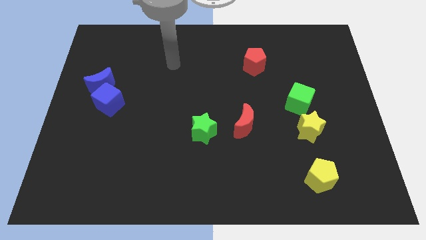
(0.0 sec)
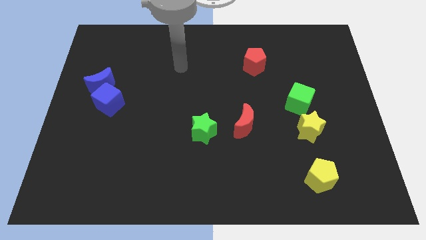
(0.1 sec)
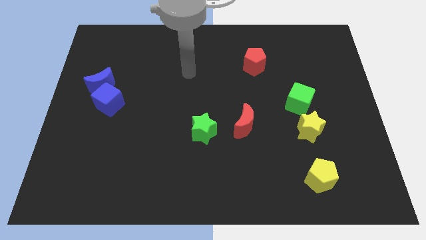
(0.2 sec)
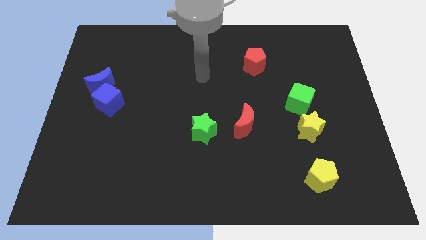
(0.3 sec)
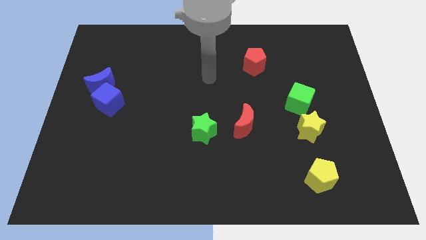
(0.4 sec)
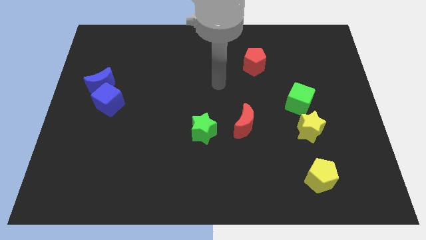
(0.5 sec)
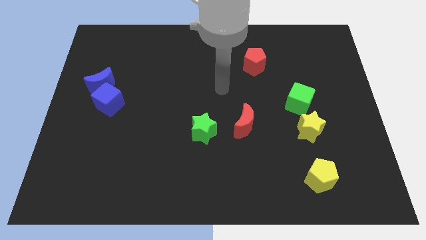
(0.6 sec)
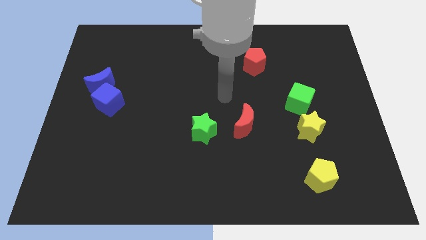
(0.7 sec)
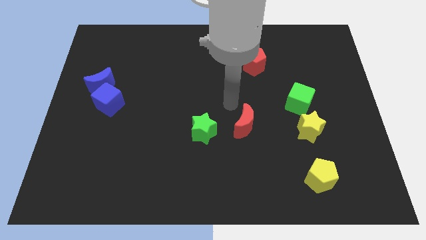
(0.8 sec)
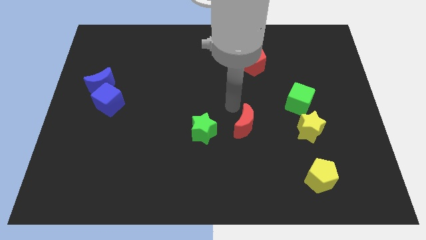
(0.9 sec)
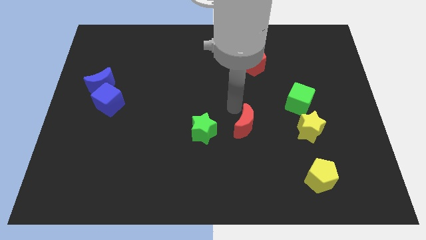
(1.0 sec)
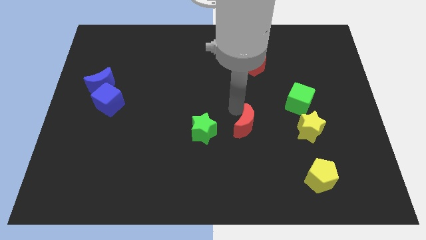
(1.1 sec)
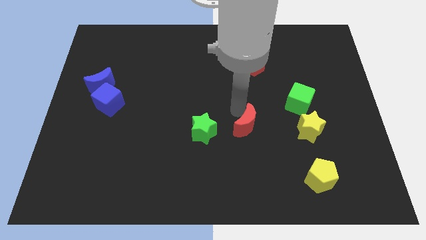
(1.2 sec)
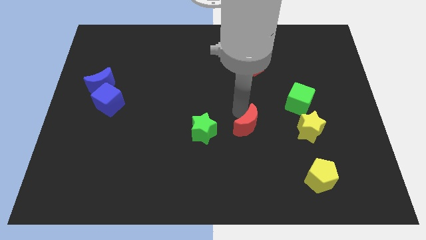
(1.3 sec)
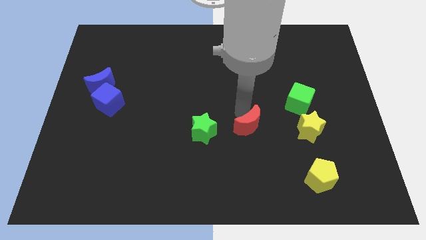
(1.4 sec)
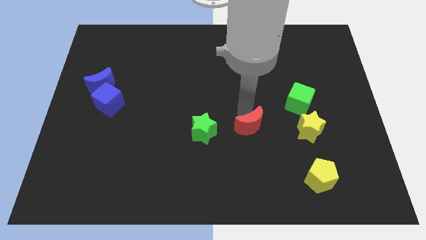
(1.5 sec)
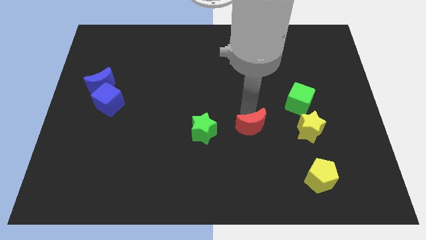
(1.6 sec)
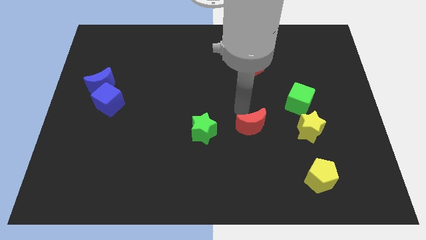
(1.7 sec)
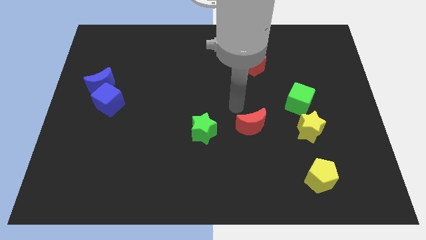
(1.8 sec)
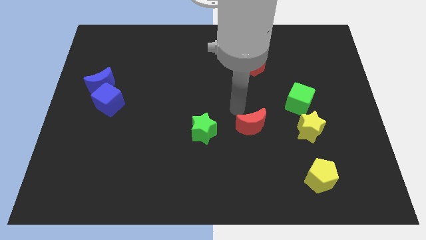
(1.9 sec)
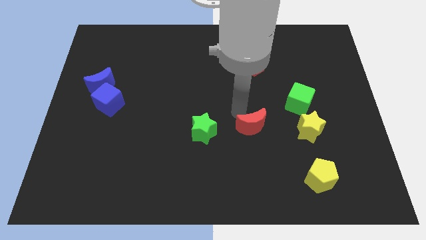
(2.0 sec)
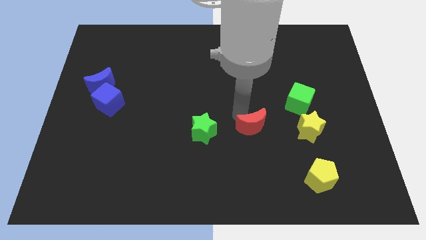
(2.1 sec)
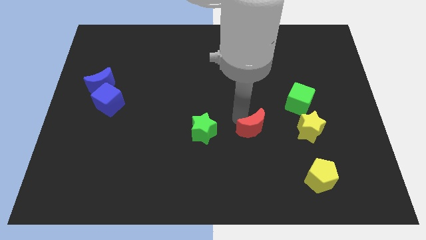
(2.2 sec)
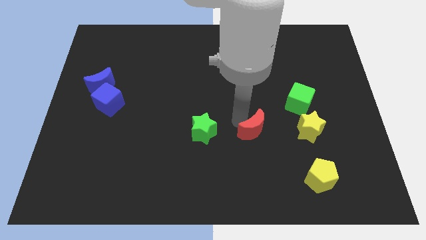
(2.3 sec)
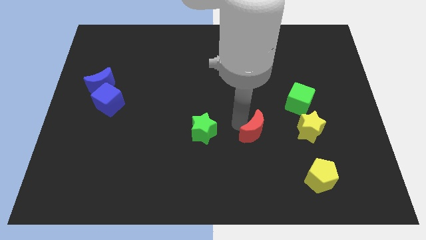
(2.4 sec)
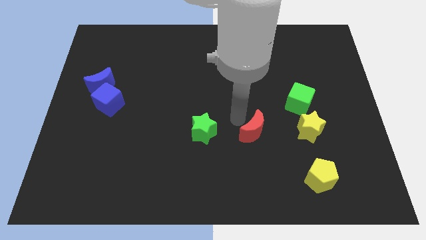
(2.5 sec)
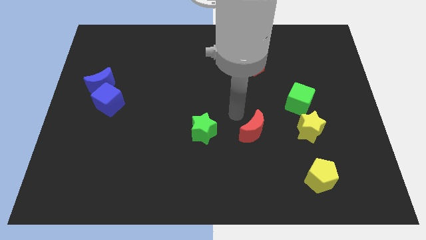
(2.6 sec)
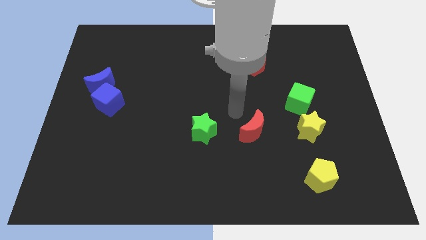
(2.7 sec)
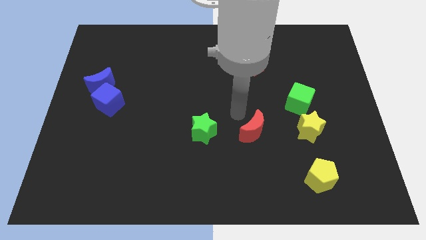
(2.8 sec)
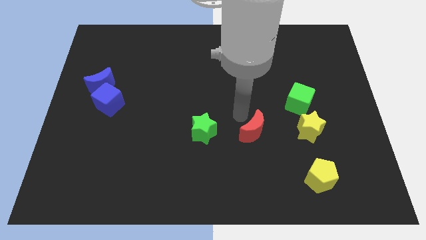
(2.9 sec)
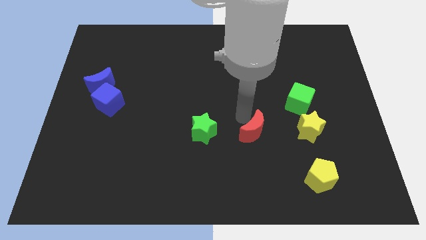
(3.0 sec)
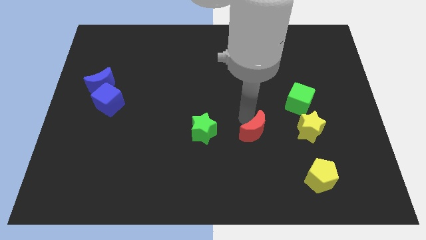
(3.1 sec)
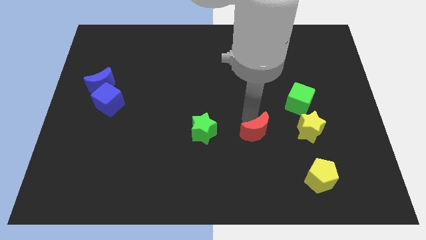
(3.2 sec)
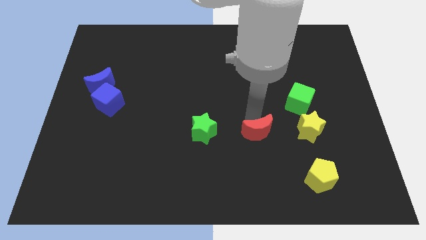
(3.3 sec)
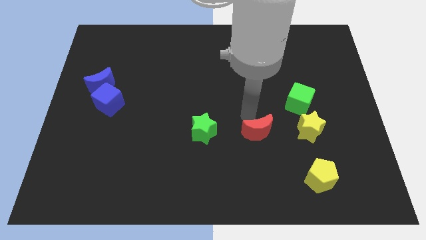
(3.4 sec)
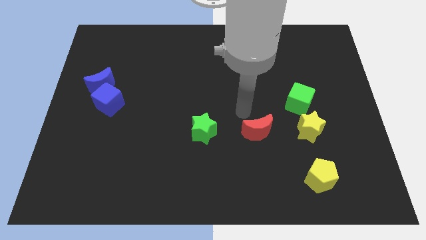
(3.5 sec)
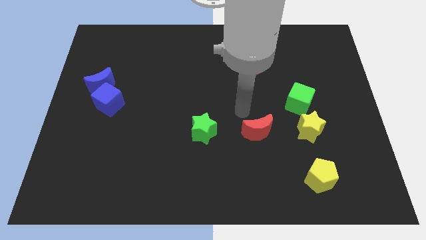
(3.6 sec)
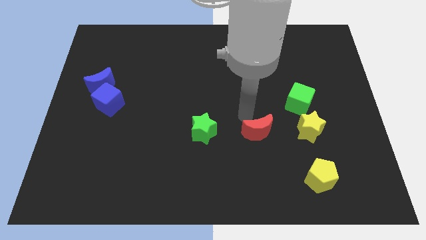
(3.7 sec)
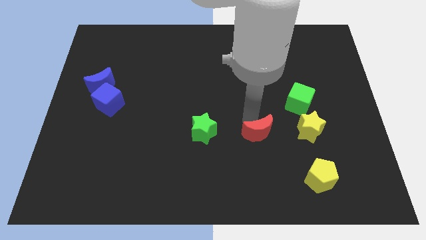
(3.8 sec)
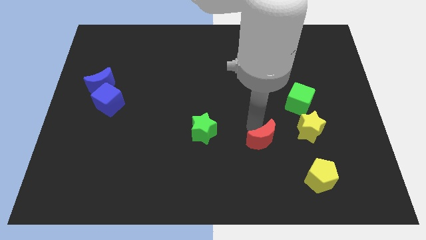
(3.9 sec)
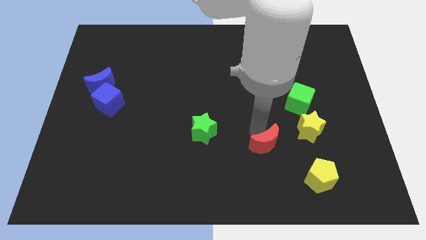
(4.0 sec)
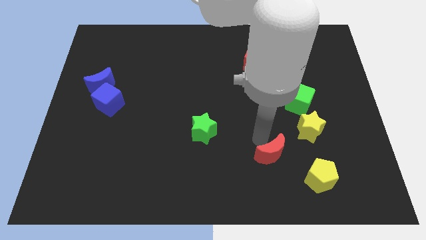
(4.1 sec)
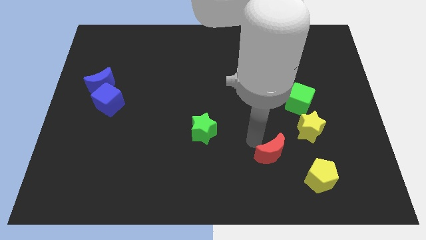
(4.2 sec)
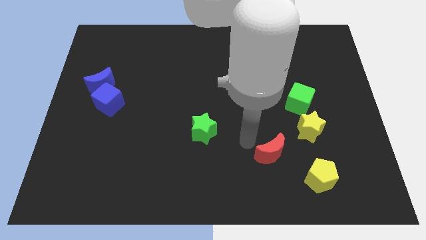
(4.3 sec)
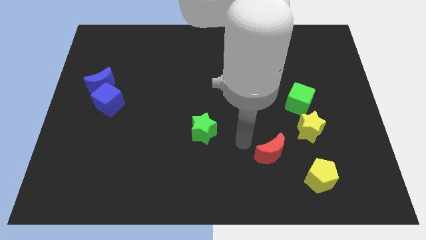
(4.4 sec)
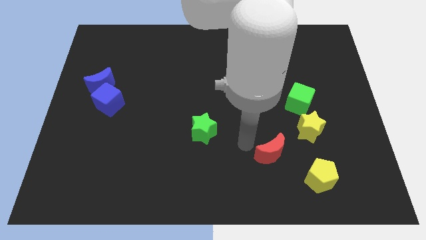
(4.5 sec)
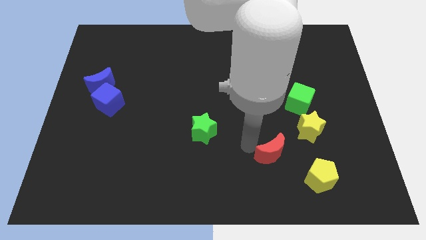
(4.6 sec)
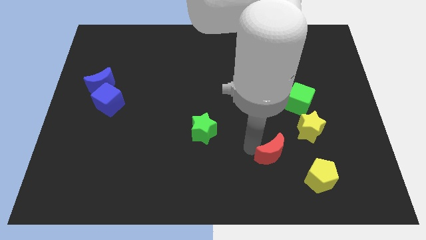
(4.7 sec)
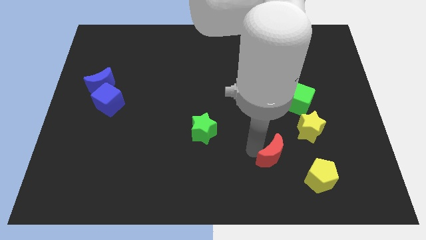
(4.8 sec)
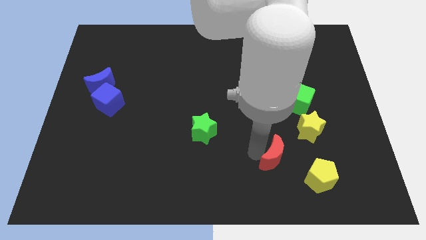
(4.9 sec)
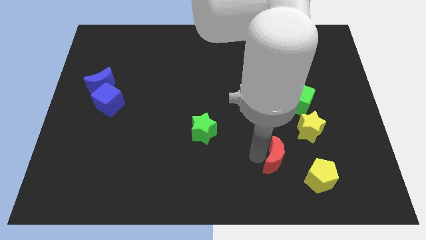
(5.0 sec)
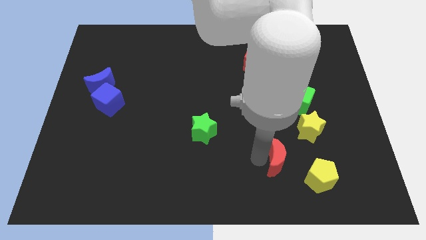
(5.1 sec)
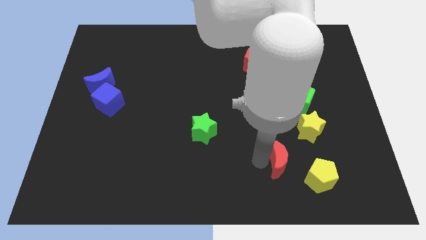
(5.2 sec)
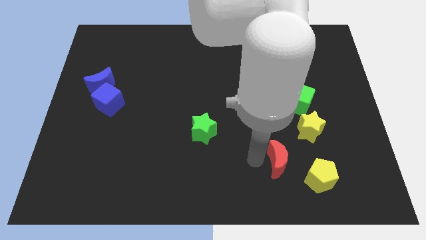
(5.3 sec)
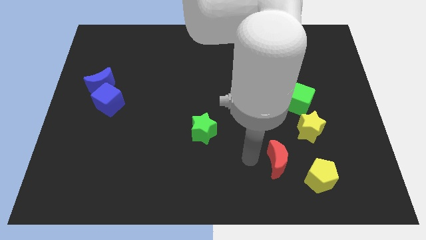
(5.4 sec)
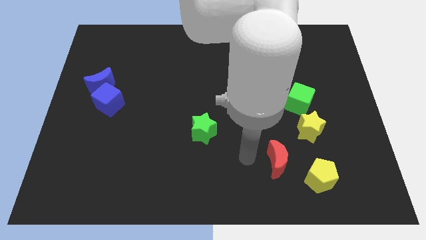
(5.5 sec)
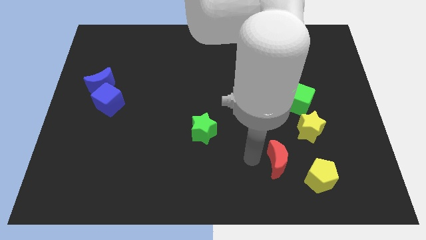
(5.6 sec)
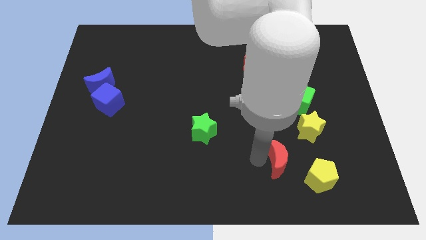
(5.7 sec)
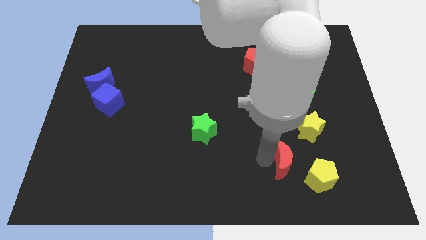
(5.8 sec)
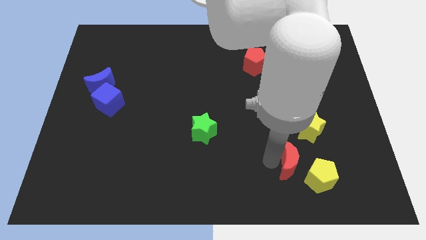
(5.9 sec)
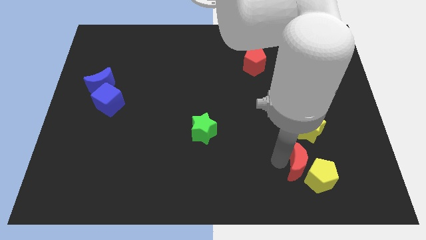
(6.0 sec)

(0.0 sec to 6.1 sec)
slide the red moon close to the yellow pentagon

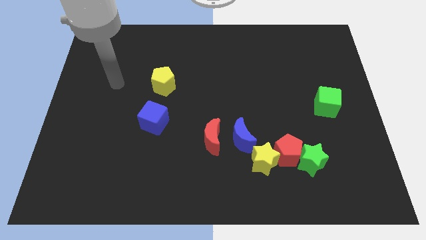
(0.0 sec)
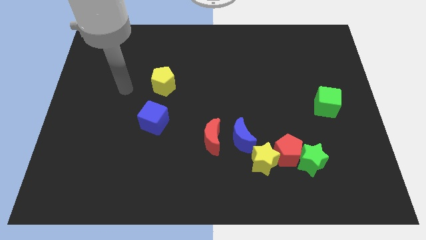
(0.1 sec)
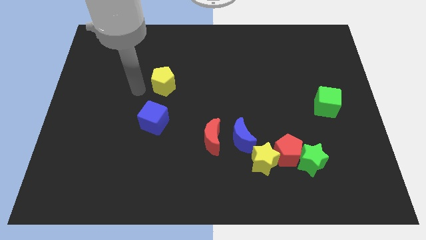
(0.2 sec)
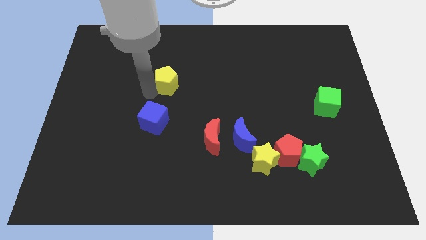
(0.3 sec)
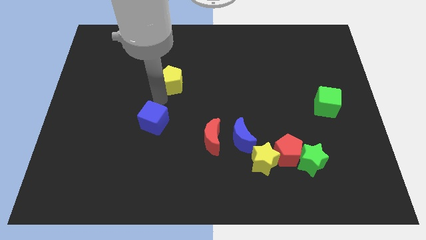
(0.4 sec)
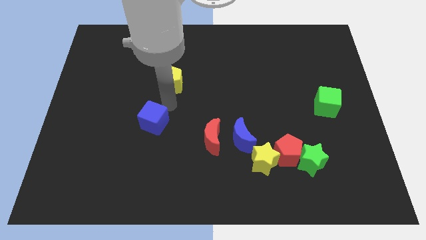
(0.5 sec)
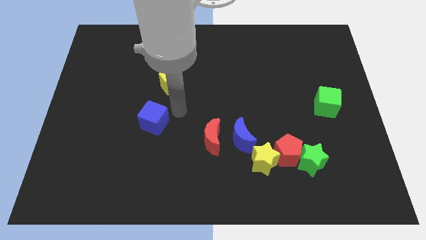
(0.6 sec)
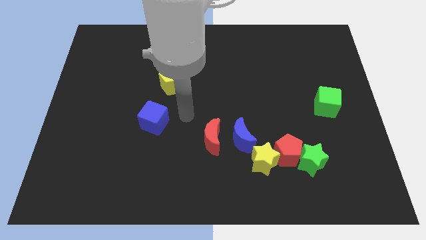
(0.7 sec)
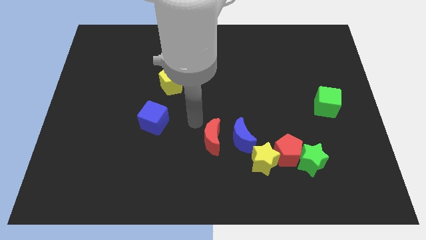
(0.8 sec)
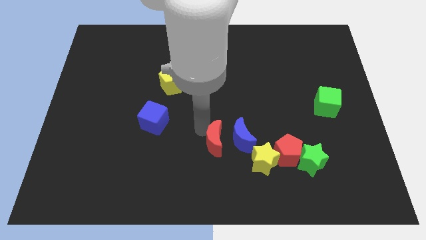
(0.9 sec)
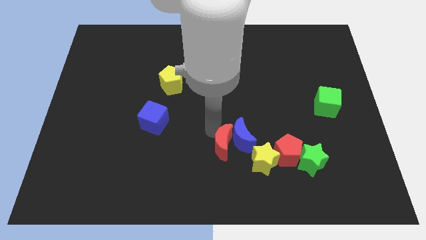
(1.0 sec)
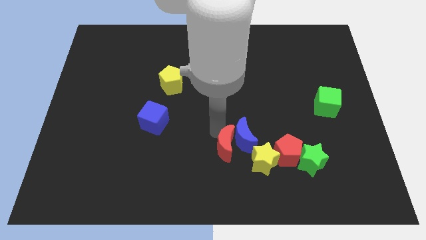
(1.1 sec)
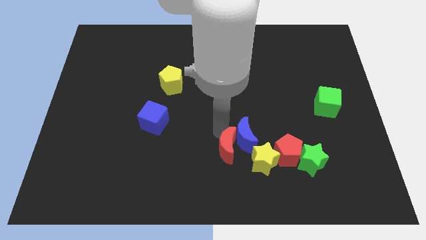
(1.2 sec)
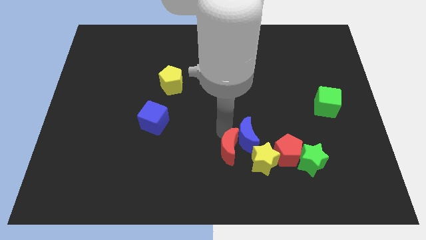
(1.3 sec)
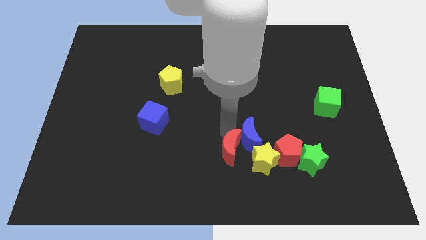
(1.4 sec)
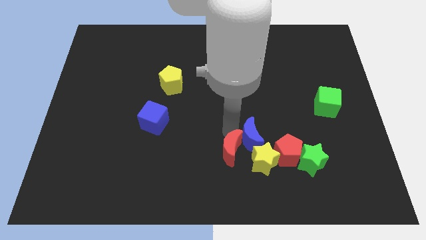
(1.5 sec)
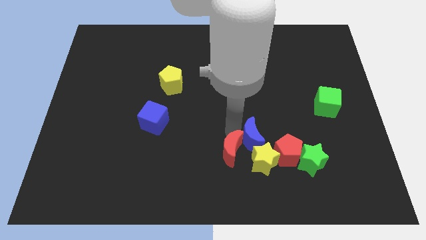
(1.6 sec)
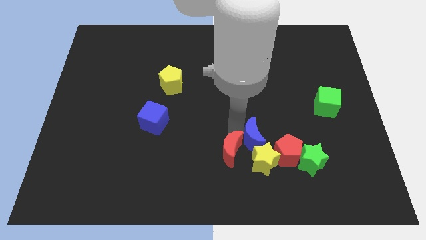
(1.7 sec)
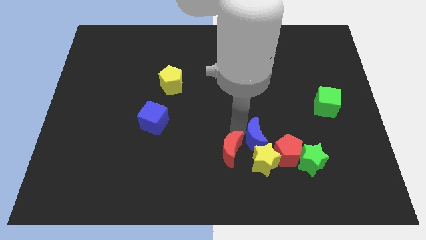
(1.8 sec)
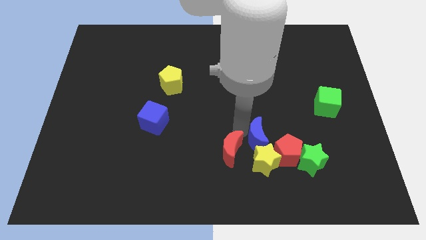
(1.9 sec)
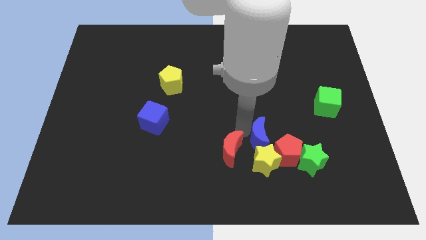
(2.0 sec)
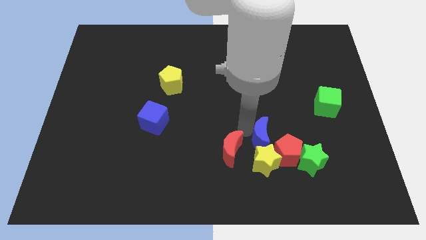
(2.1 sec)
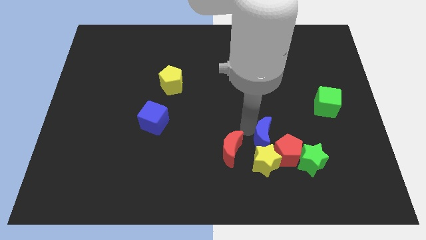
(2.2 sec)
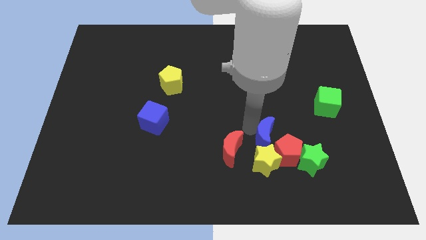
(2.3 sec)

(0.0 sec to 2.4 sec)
put the blue moon towards the red pentagon
